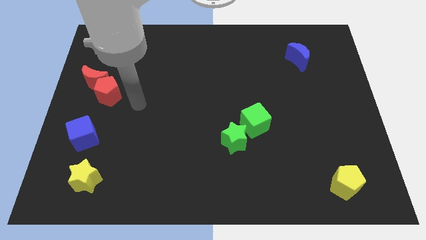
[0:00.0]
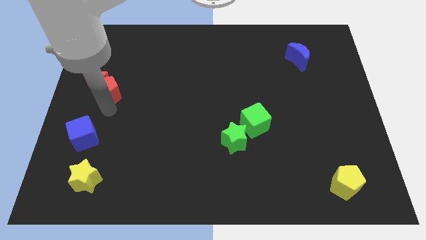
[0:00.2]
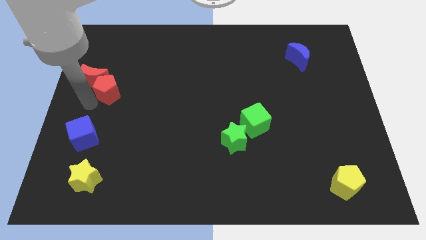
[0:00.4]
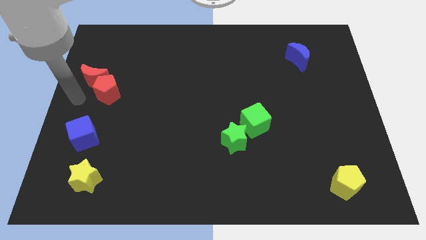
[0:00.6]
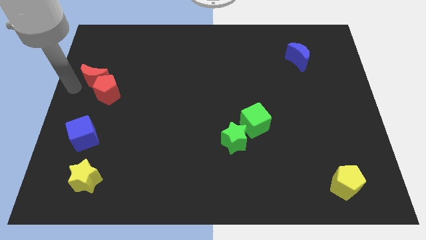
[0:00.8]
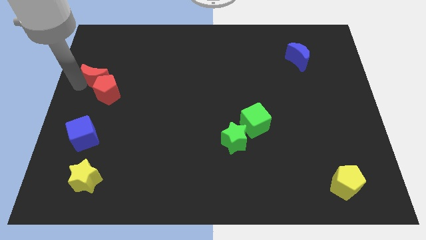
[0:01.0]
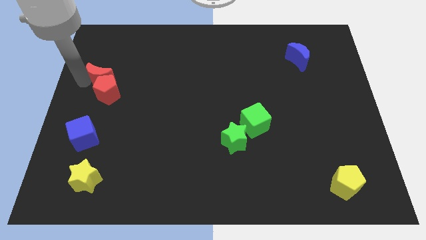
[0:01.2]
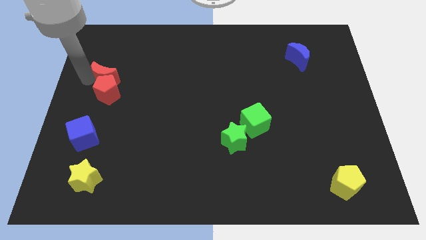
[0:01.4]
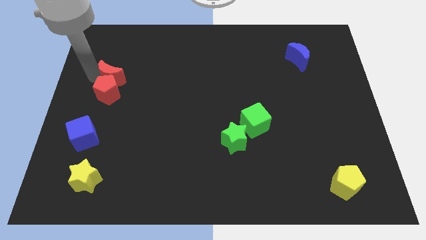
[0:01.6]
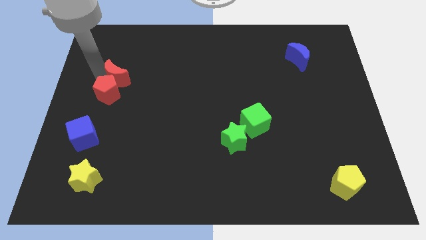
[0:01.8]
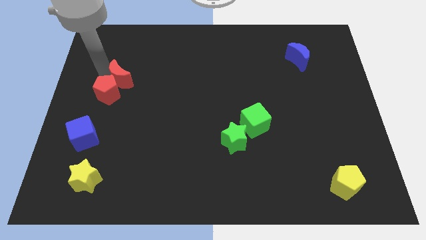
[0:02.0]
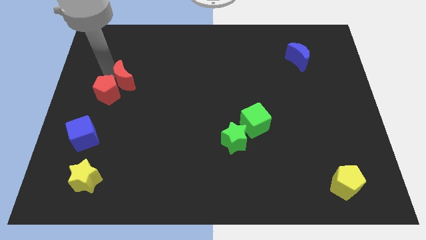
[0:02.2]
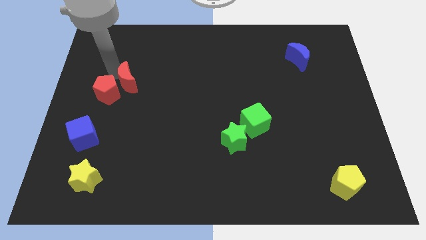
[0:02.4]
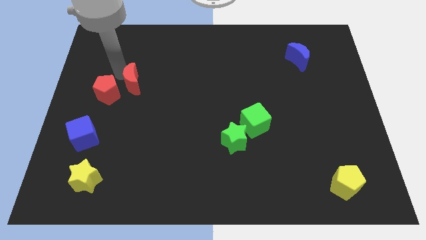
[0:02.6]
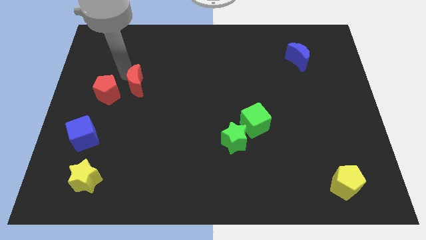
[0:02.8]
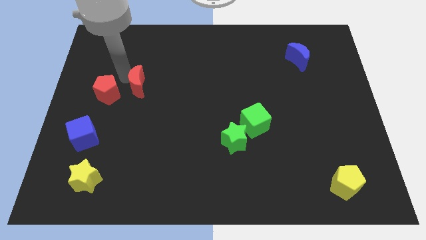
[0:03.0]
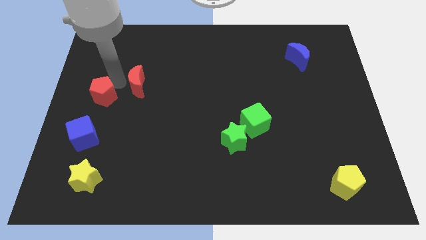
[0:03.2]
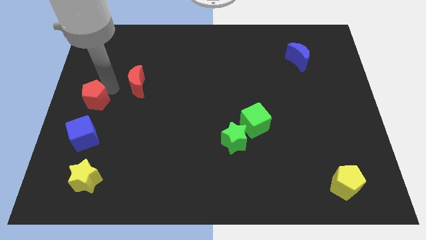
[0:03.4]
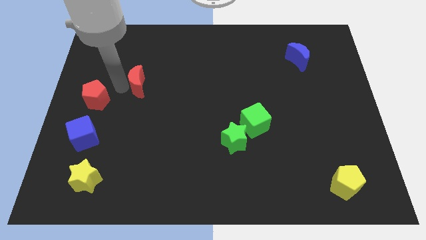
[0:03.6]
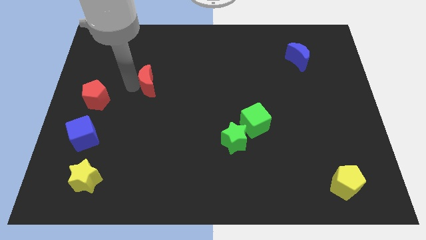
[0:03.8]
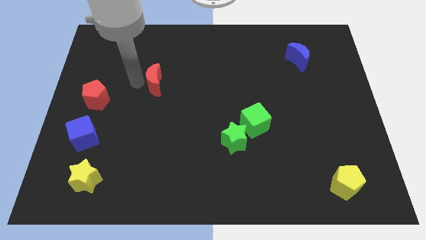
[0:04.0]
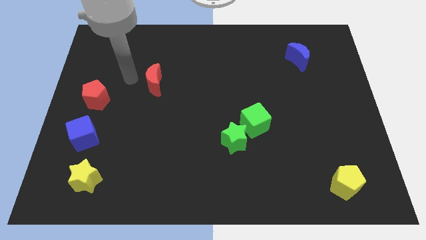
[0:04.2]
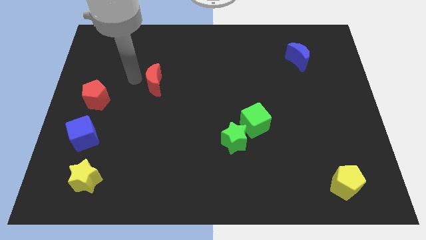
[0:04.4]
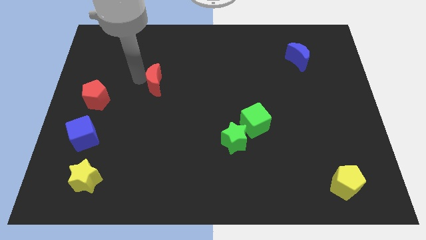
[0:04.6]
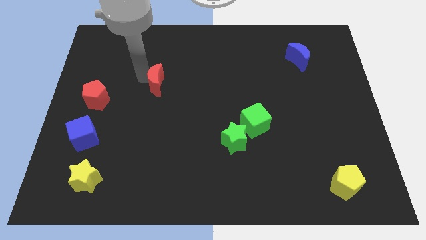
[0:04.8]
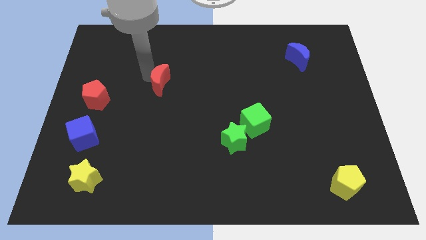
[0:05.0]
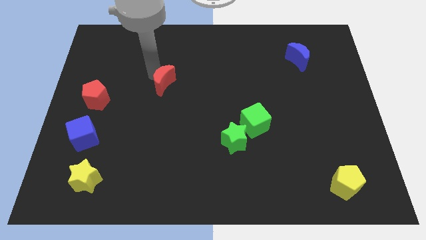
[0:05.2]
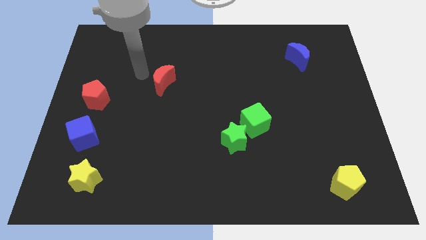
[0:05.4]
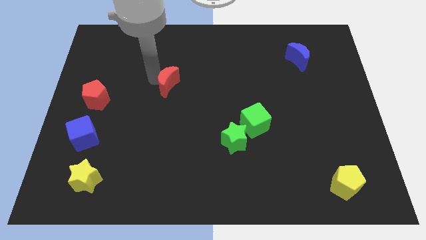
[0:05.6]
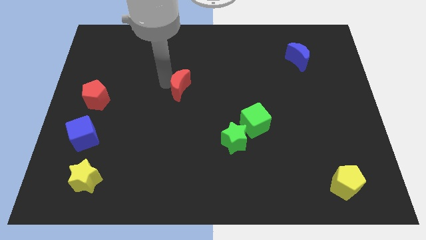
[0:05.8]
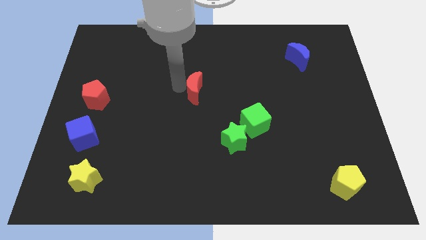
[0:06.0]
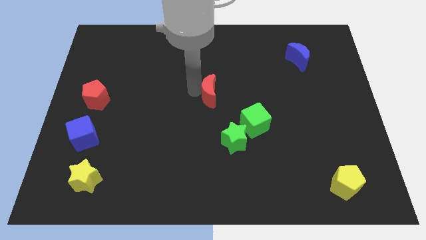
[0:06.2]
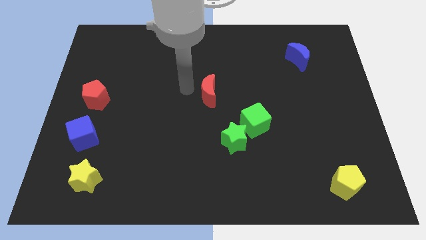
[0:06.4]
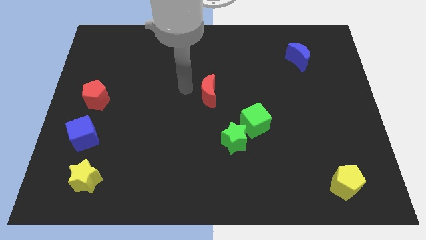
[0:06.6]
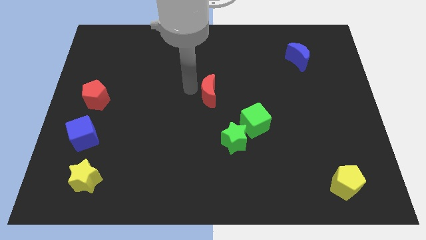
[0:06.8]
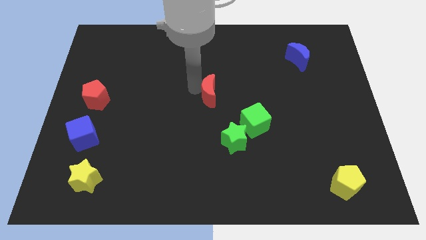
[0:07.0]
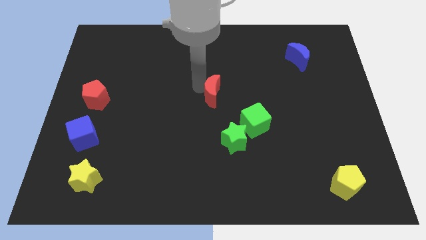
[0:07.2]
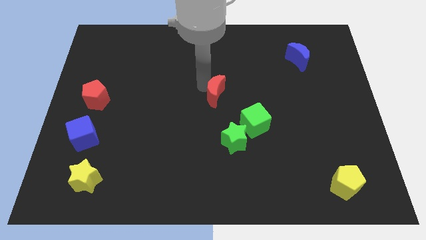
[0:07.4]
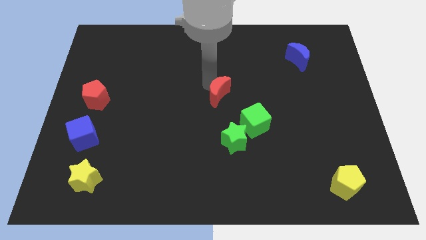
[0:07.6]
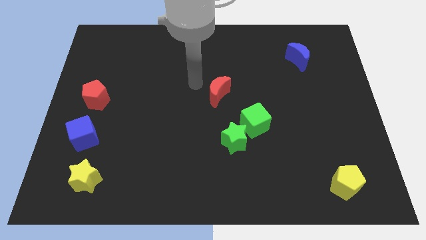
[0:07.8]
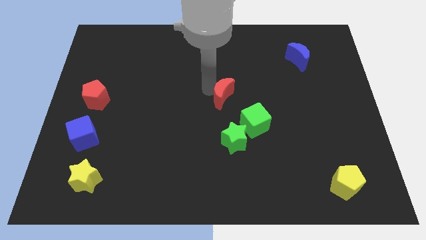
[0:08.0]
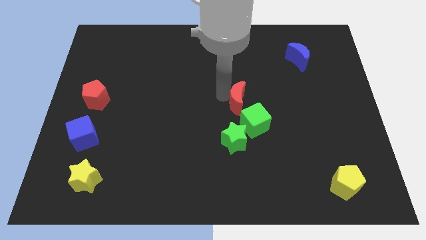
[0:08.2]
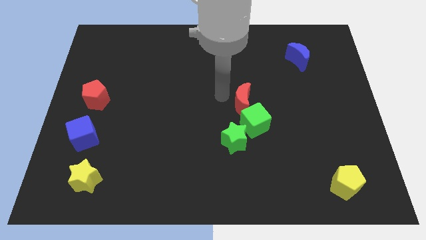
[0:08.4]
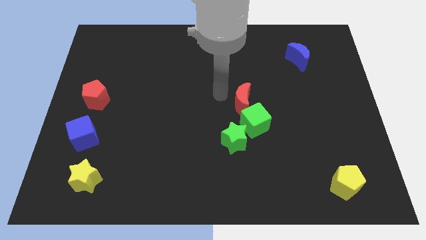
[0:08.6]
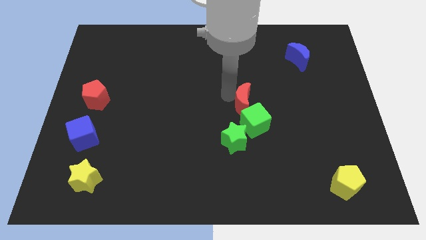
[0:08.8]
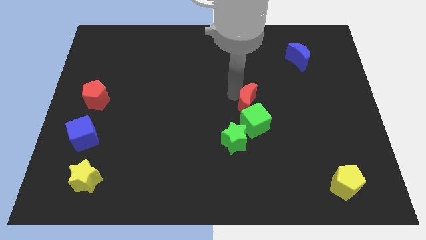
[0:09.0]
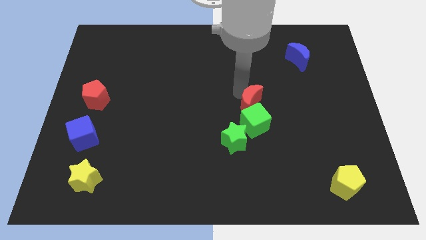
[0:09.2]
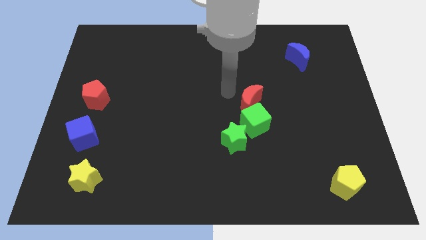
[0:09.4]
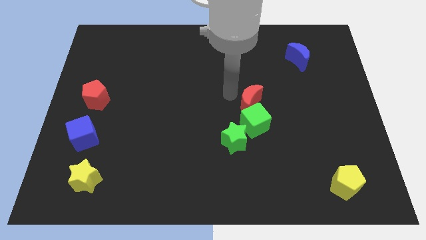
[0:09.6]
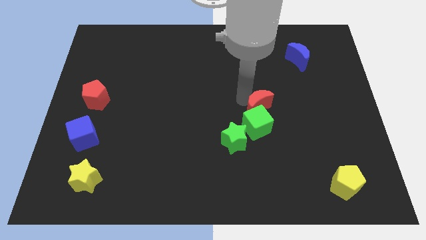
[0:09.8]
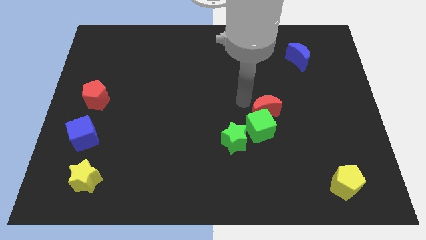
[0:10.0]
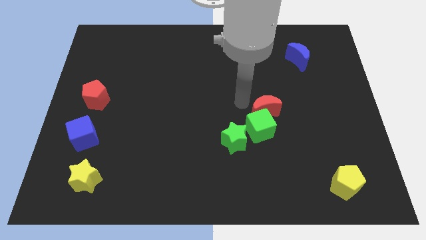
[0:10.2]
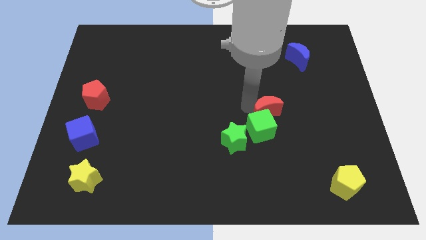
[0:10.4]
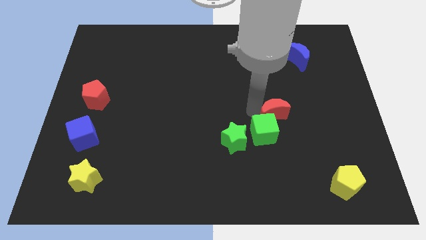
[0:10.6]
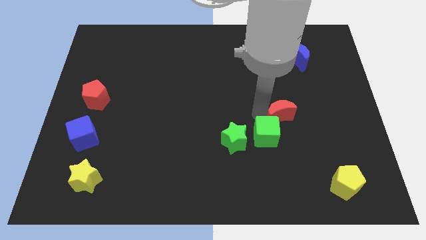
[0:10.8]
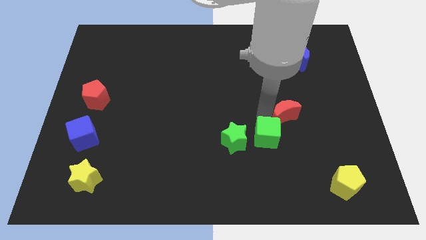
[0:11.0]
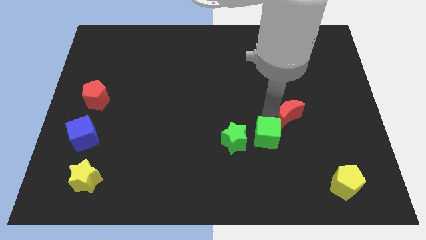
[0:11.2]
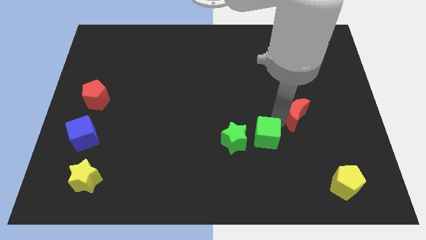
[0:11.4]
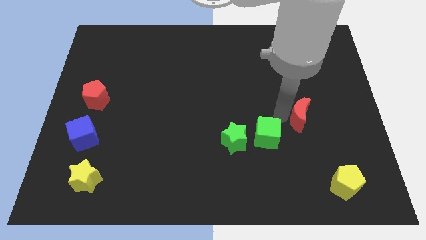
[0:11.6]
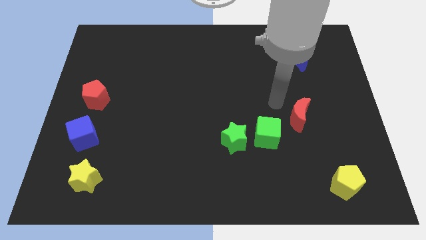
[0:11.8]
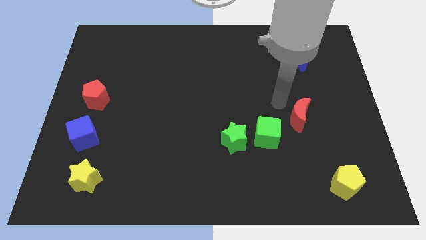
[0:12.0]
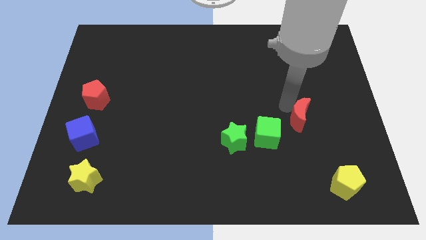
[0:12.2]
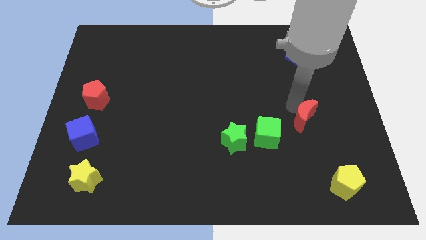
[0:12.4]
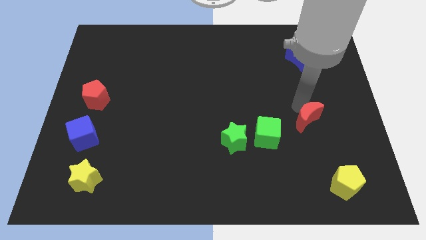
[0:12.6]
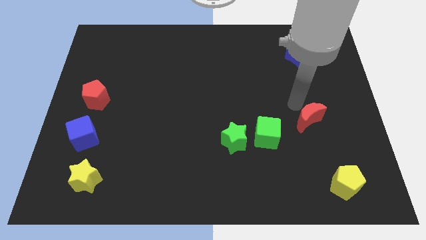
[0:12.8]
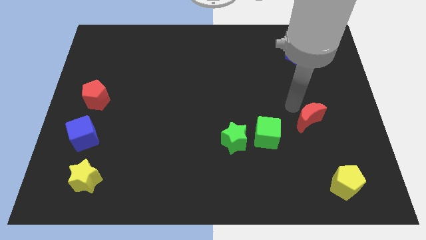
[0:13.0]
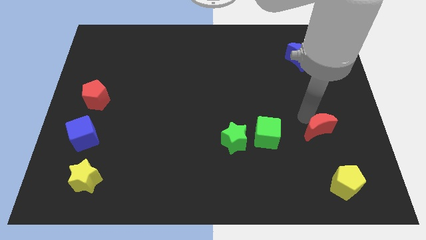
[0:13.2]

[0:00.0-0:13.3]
move the red moon above the yellow pentagon
